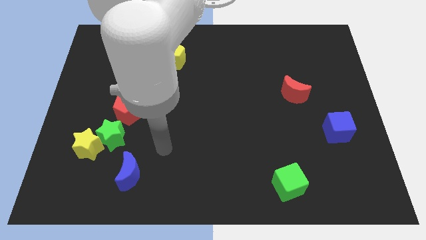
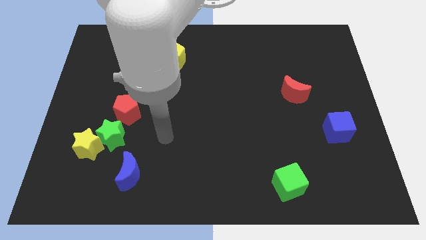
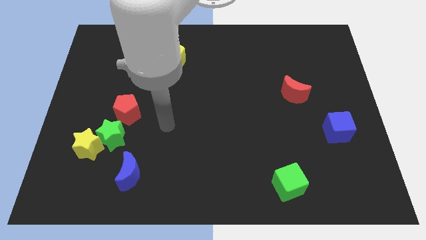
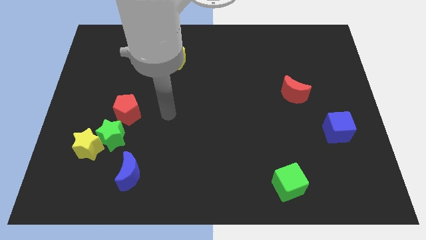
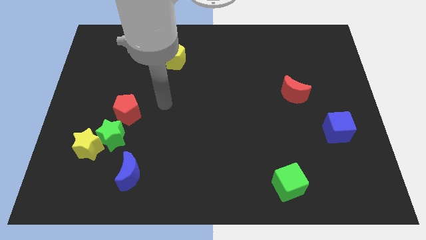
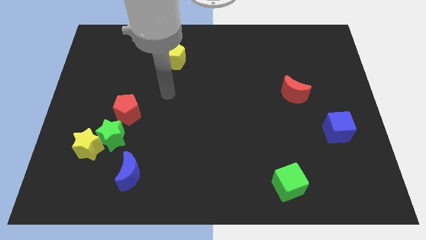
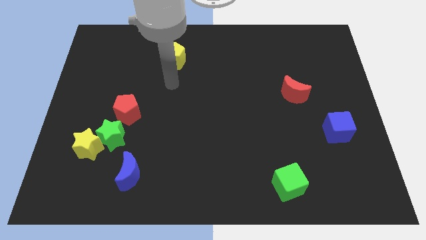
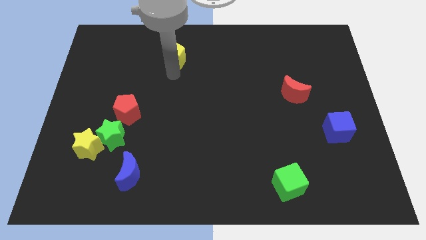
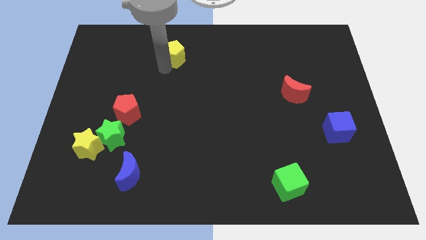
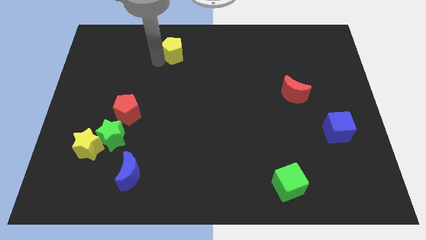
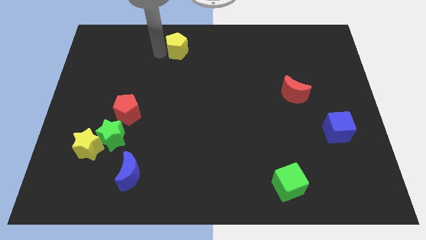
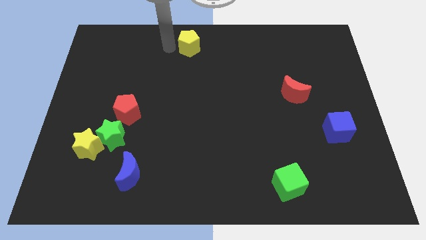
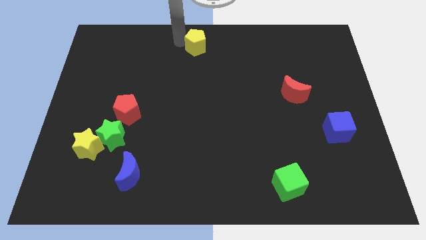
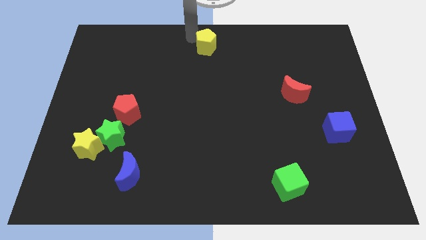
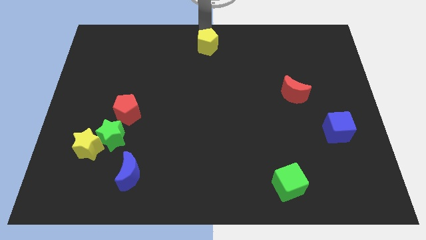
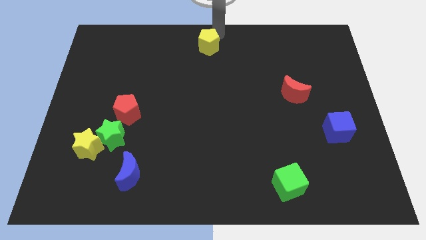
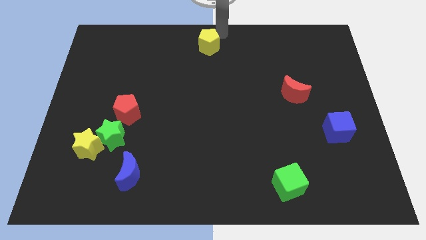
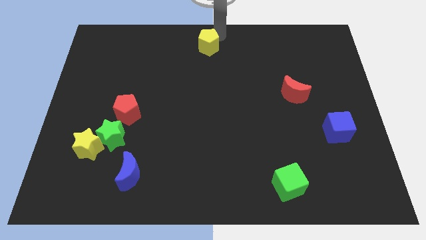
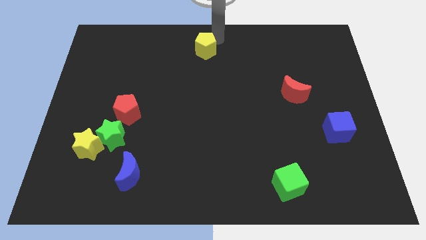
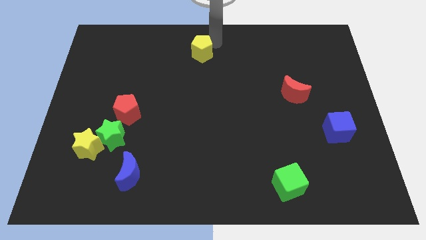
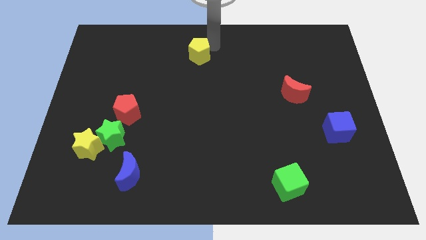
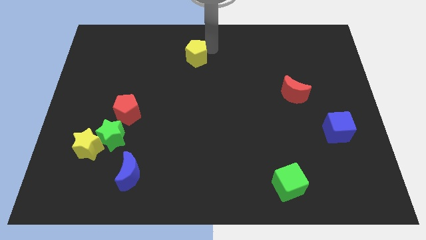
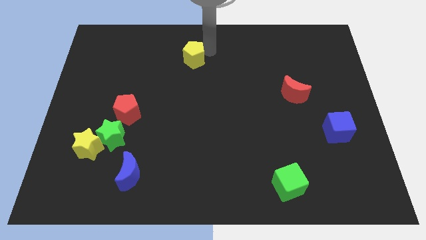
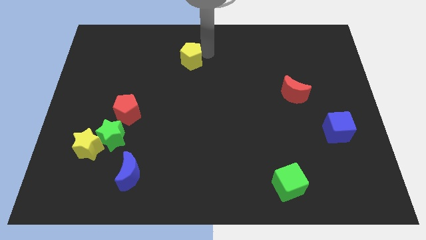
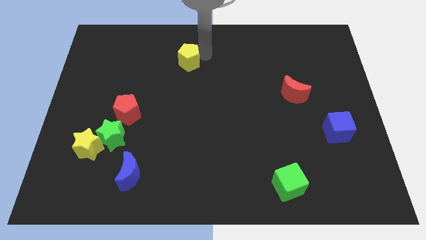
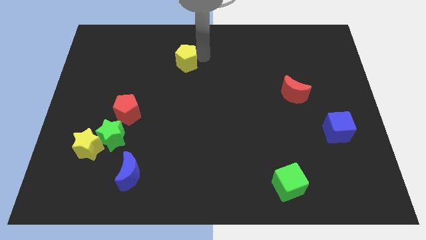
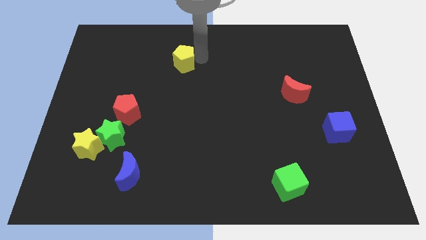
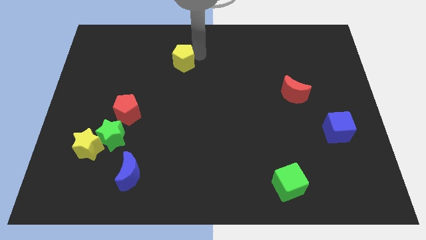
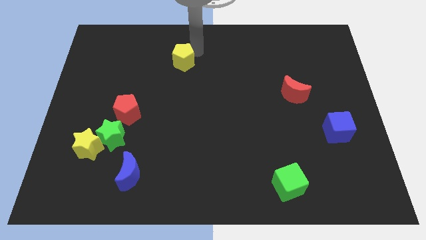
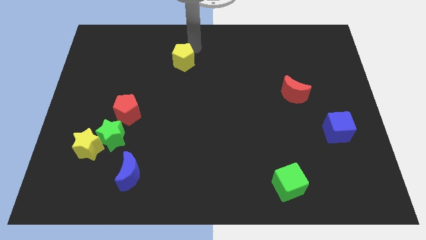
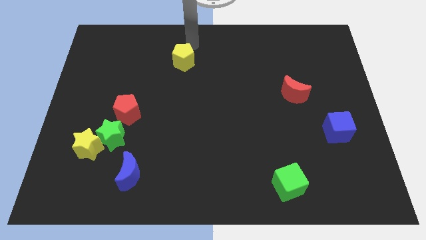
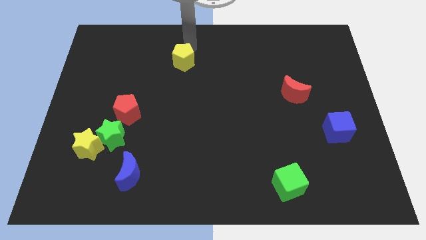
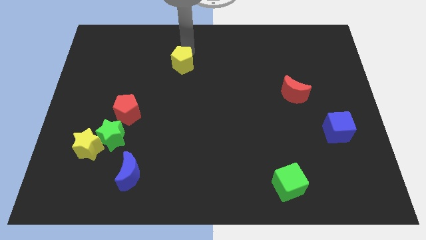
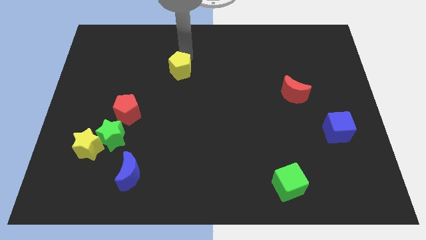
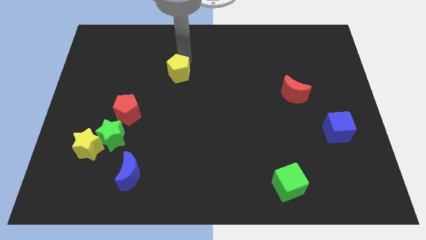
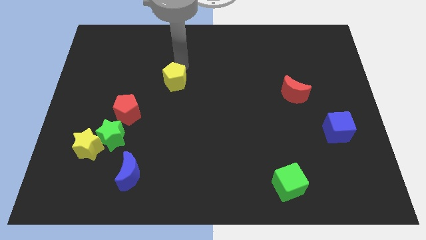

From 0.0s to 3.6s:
slightly slide the yellow pentagon downwards

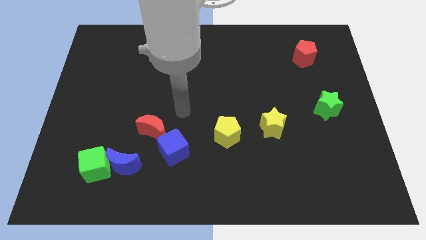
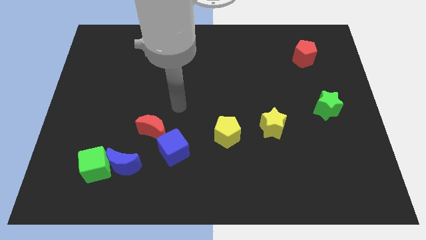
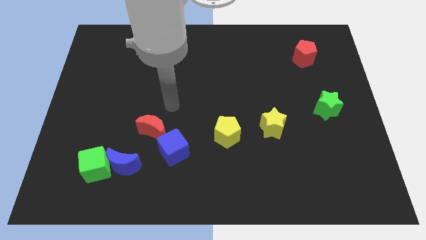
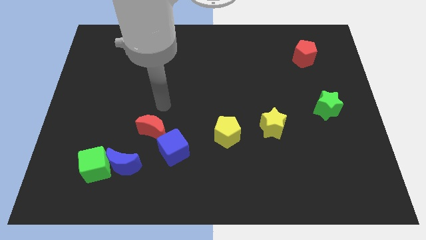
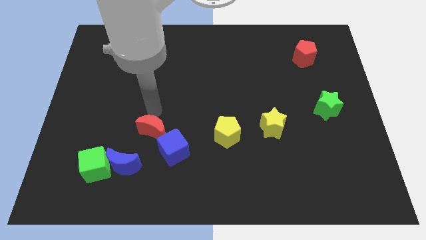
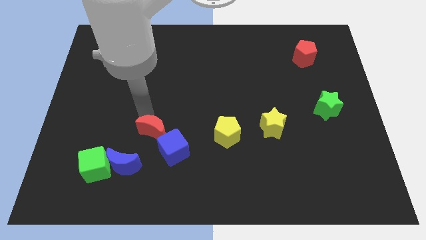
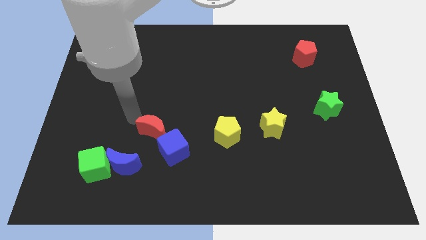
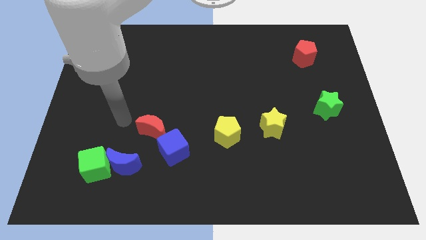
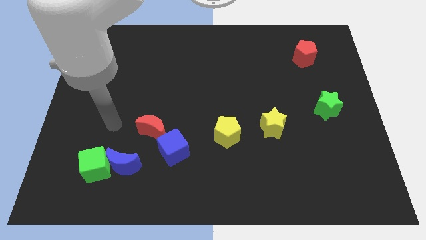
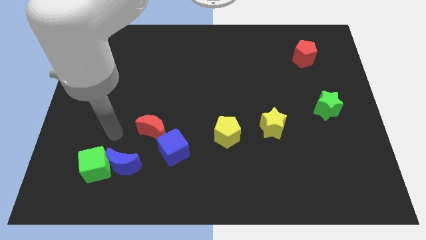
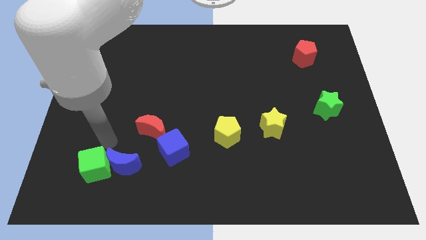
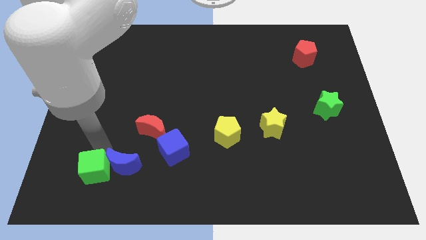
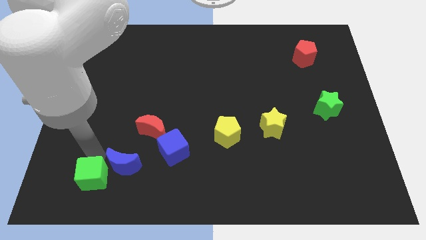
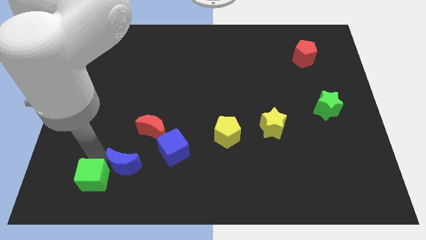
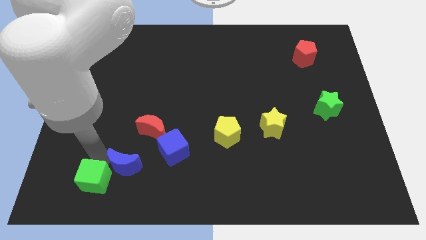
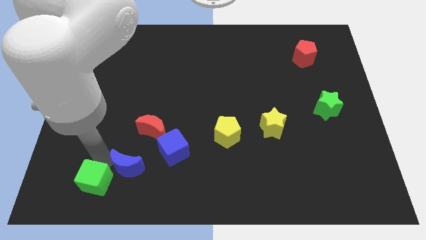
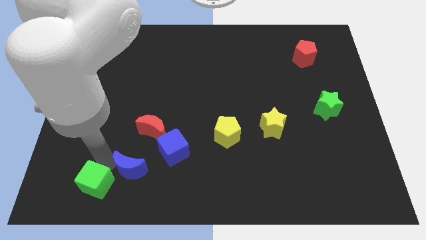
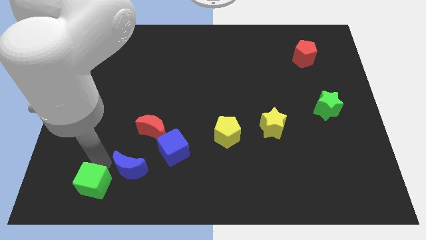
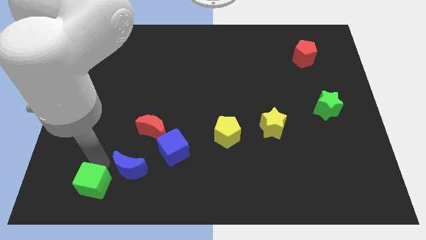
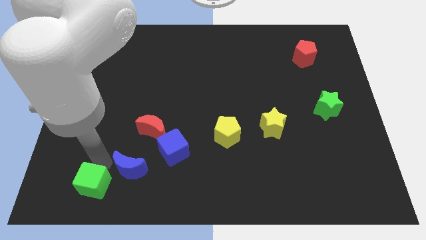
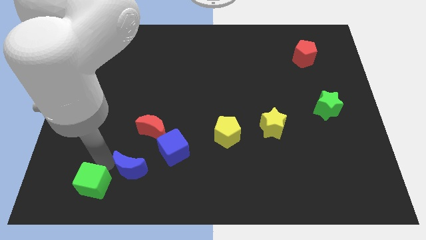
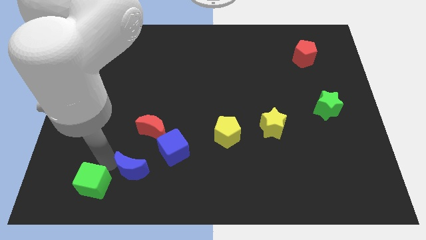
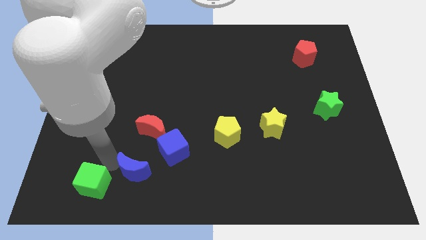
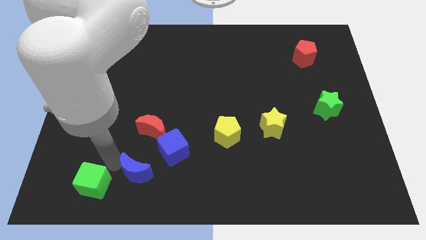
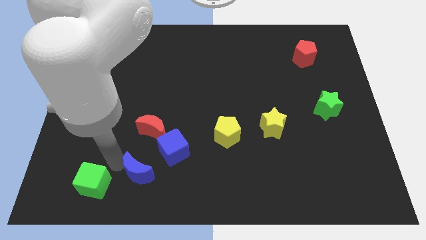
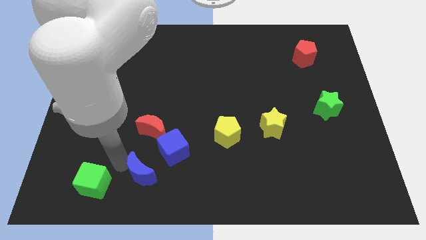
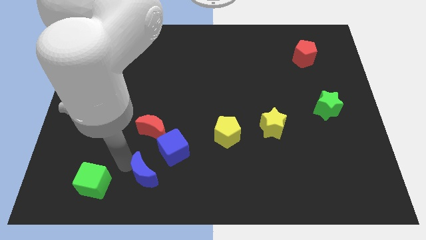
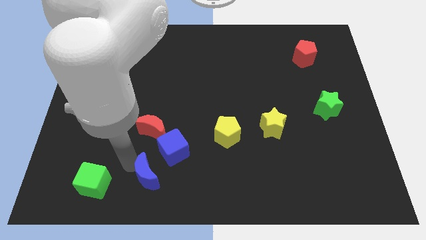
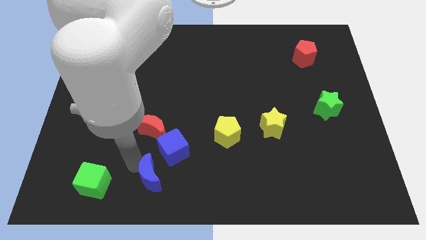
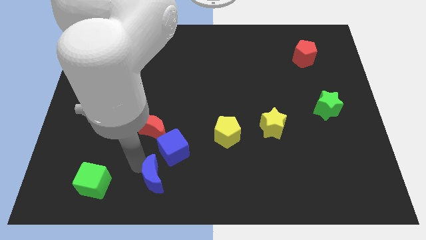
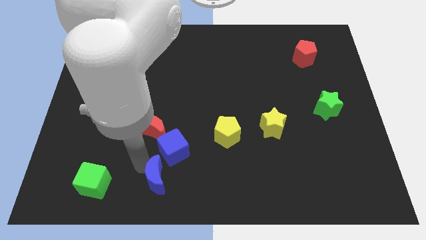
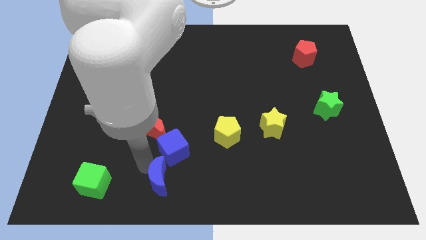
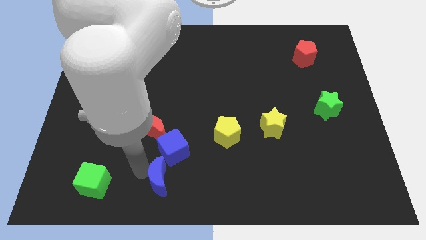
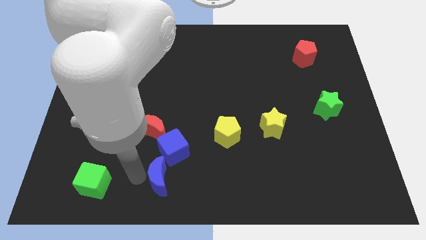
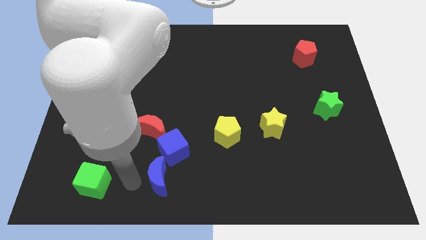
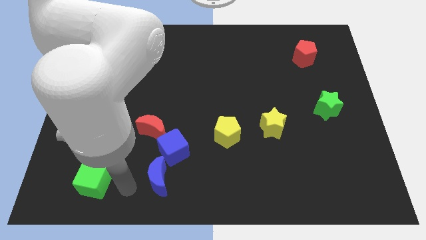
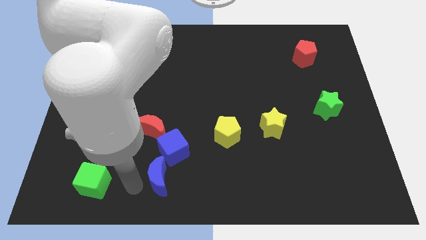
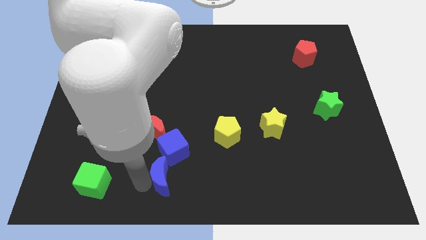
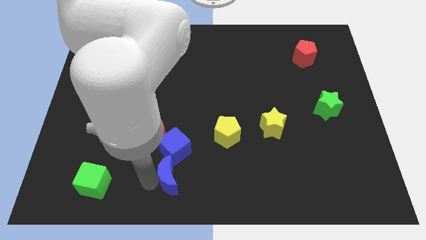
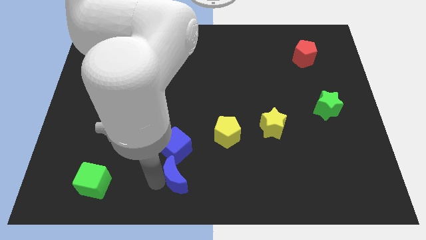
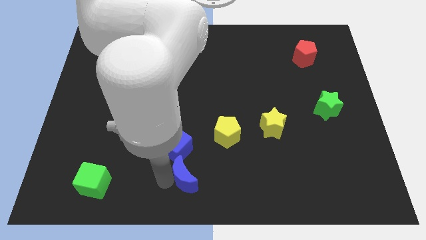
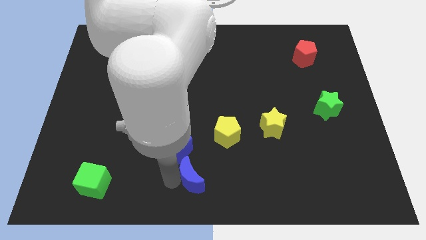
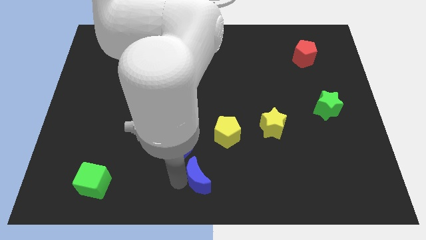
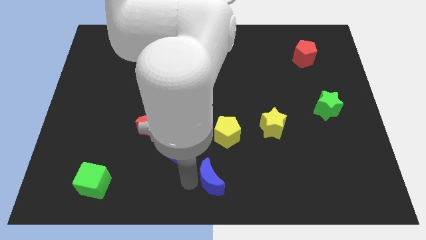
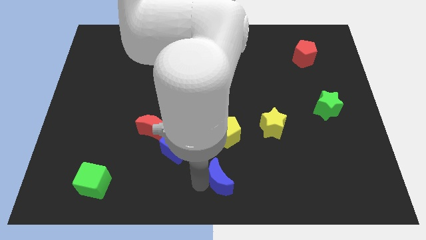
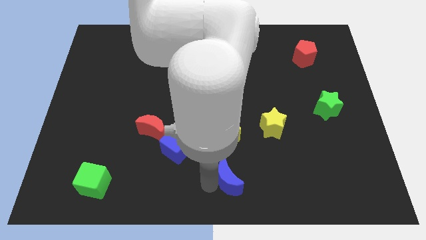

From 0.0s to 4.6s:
push the blue moon to the right
